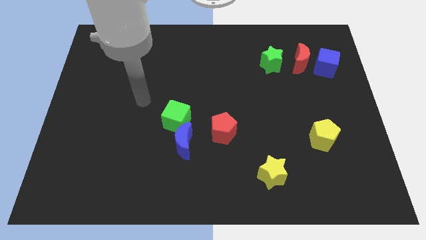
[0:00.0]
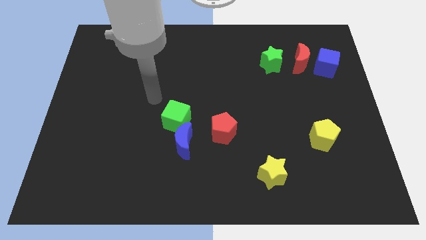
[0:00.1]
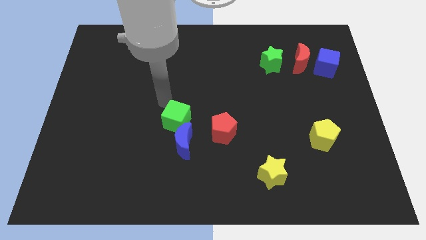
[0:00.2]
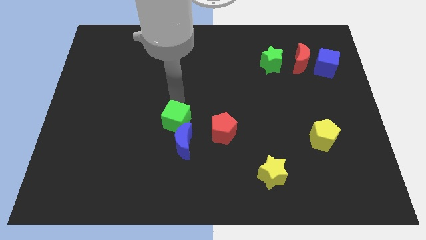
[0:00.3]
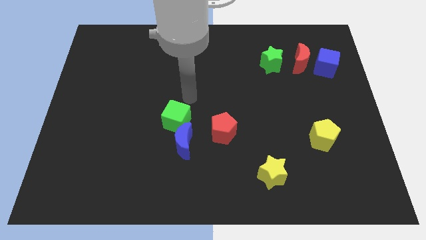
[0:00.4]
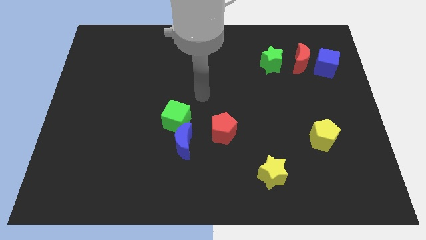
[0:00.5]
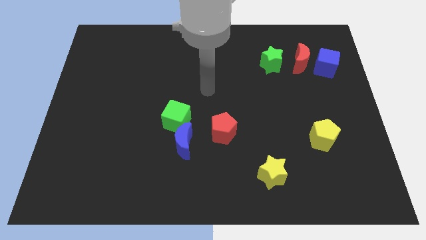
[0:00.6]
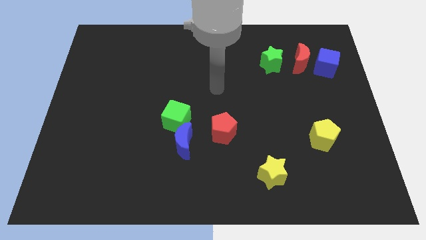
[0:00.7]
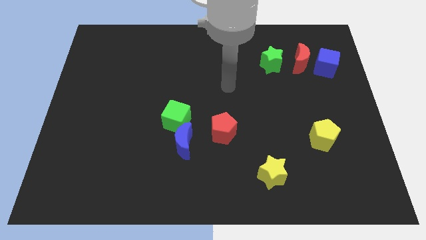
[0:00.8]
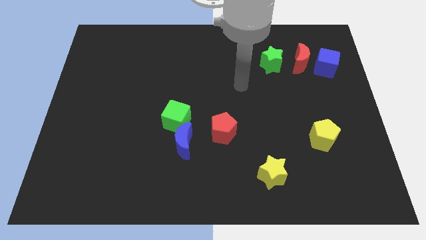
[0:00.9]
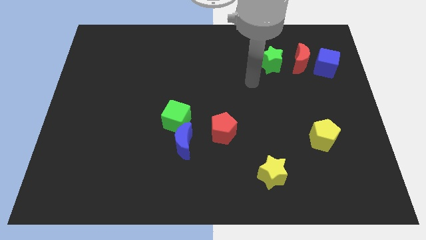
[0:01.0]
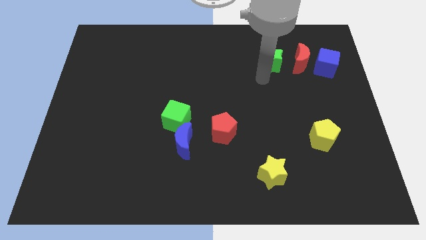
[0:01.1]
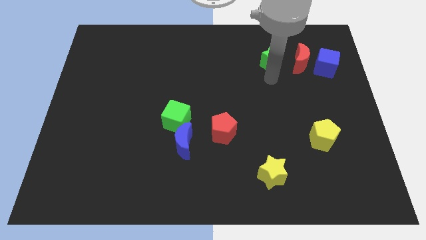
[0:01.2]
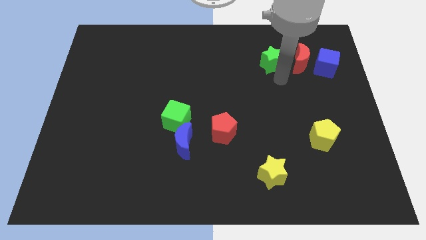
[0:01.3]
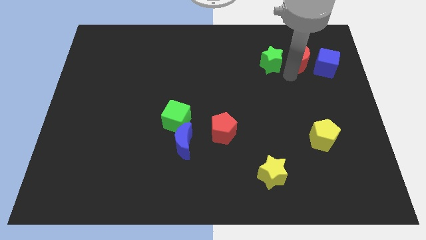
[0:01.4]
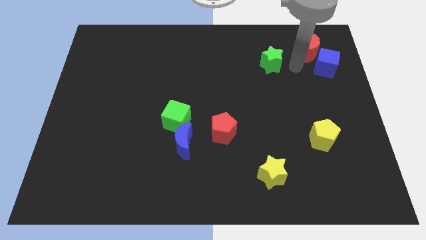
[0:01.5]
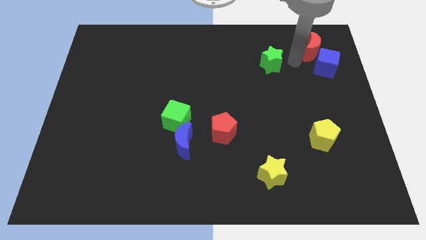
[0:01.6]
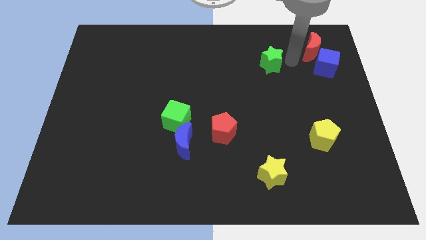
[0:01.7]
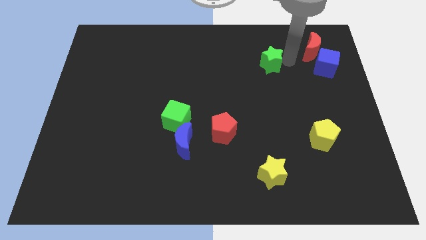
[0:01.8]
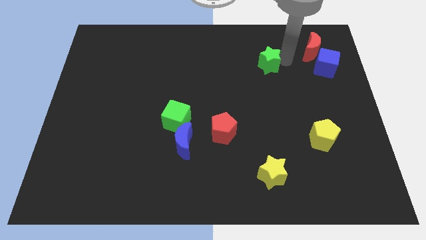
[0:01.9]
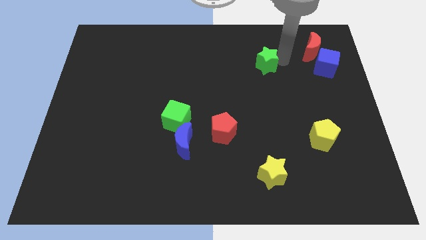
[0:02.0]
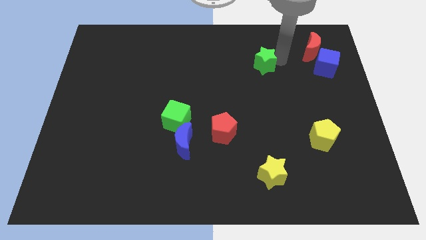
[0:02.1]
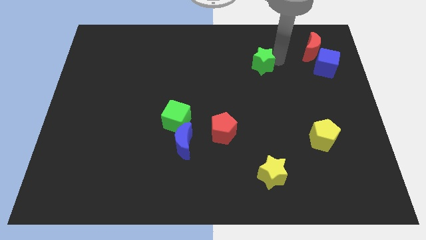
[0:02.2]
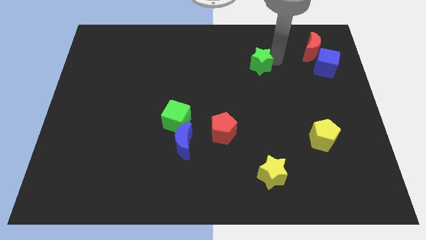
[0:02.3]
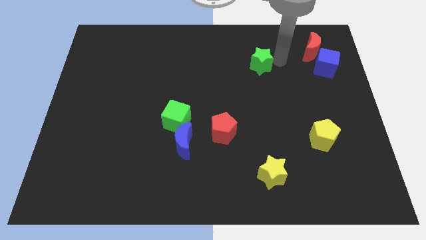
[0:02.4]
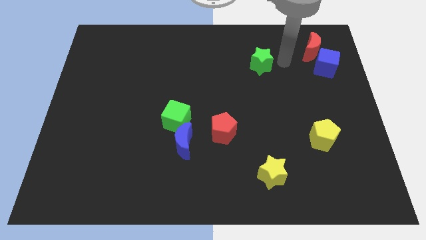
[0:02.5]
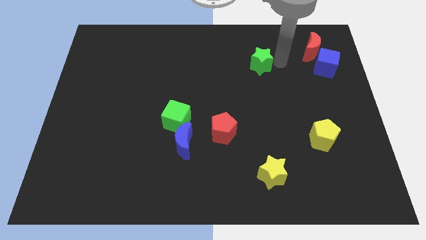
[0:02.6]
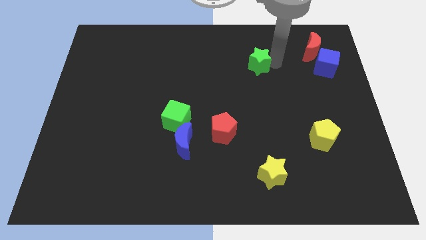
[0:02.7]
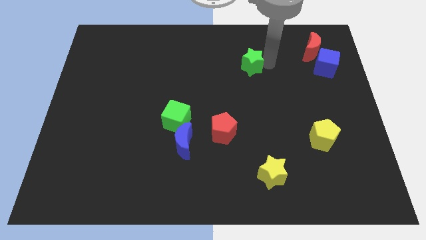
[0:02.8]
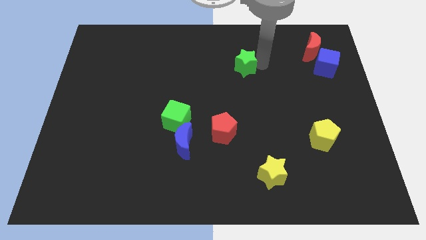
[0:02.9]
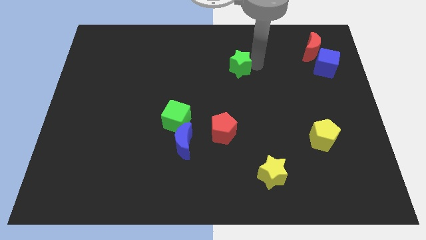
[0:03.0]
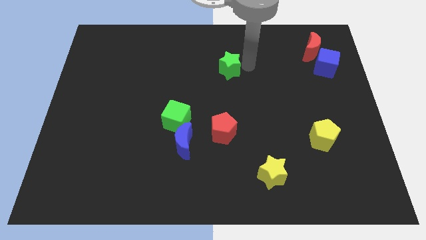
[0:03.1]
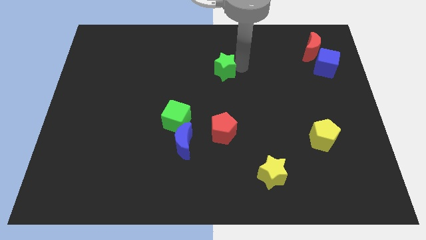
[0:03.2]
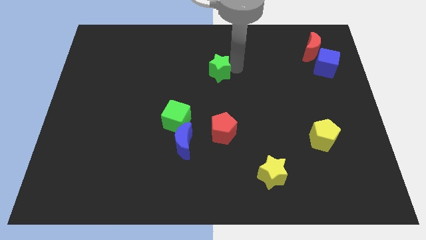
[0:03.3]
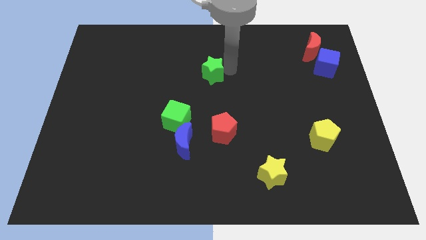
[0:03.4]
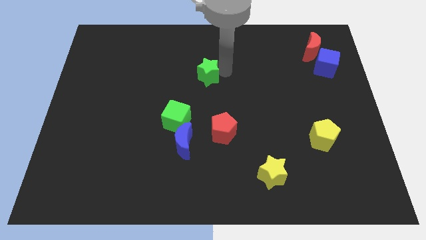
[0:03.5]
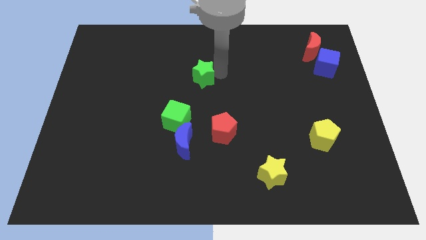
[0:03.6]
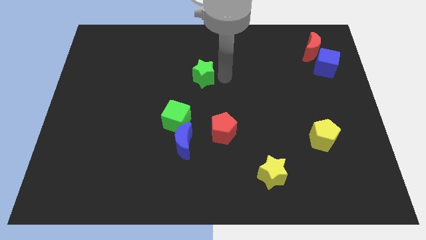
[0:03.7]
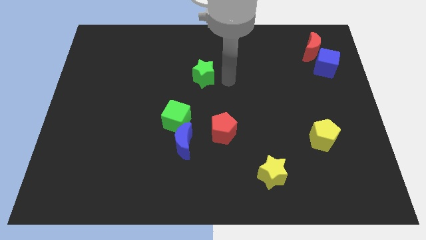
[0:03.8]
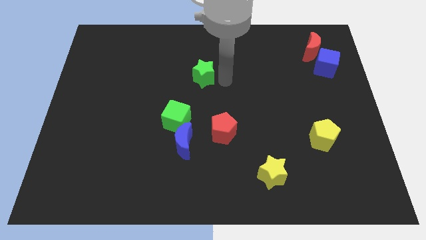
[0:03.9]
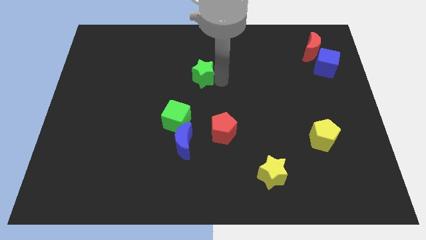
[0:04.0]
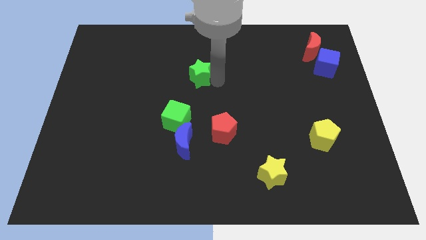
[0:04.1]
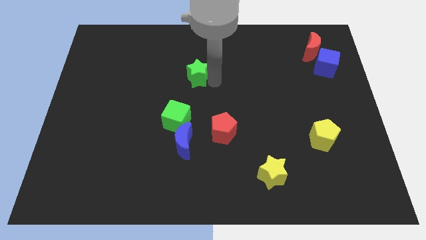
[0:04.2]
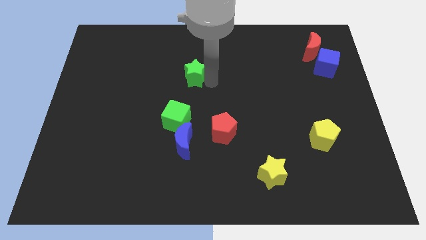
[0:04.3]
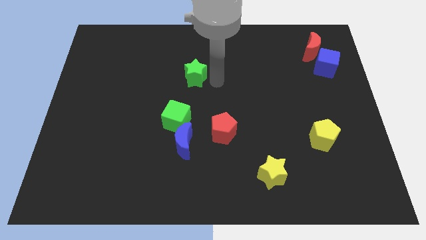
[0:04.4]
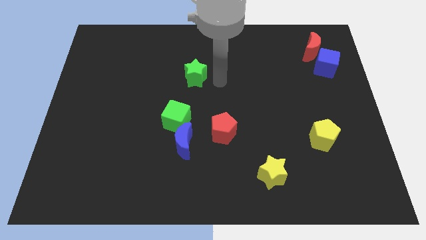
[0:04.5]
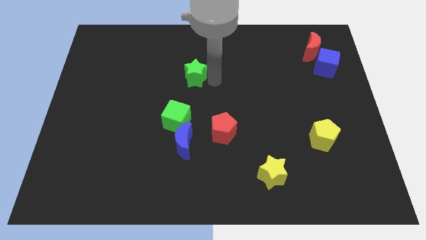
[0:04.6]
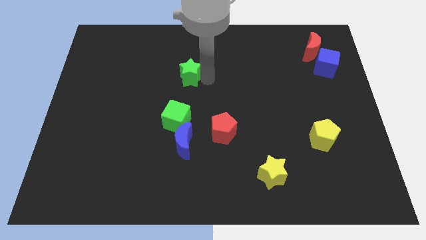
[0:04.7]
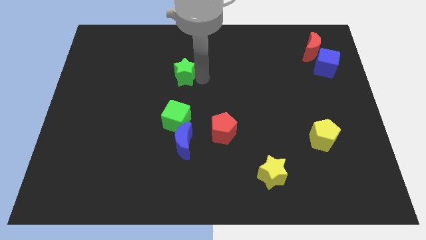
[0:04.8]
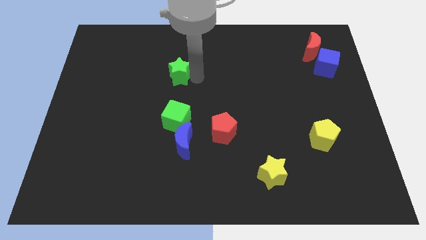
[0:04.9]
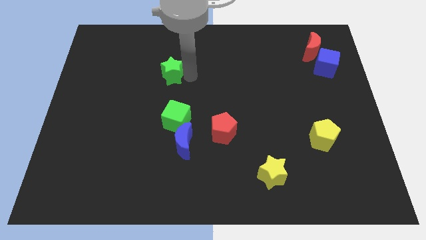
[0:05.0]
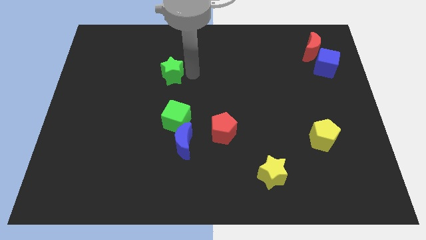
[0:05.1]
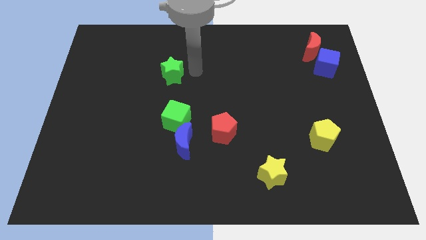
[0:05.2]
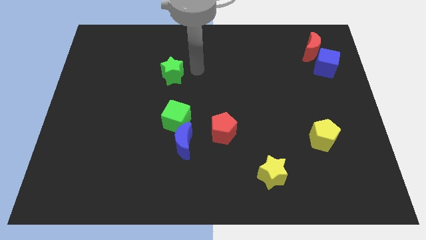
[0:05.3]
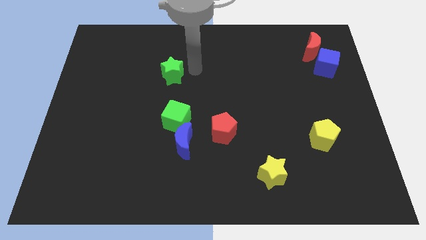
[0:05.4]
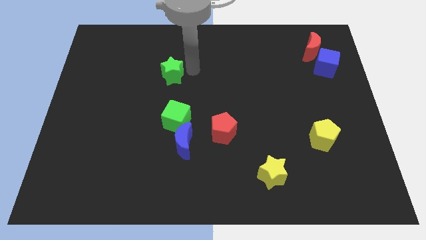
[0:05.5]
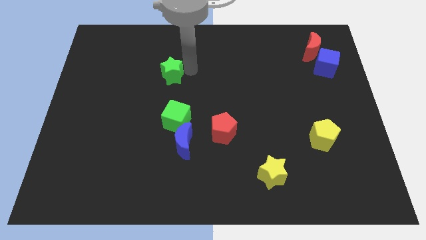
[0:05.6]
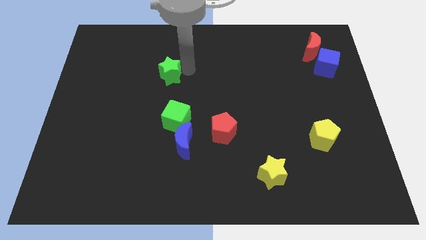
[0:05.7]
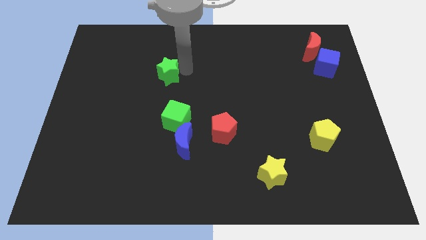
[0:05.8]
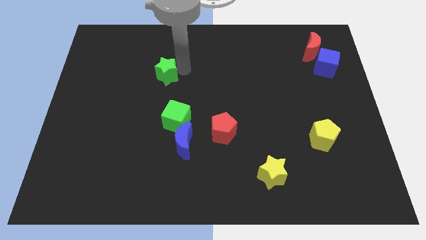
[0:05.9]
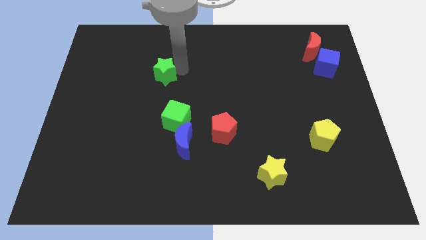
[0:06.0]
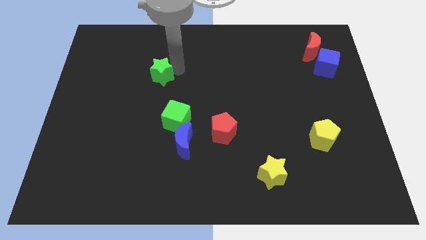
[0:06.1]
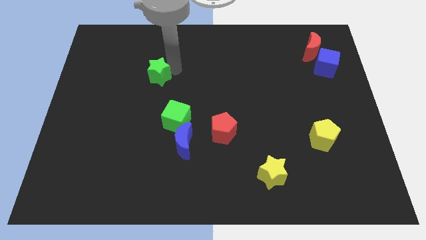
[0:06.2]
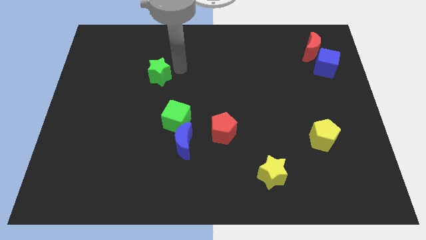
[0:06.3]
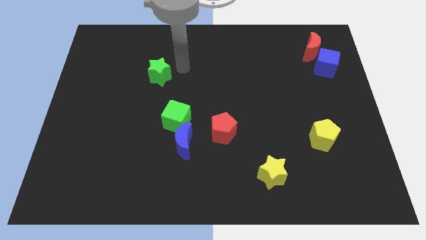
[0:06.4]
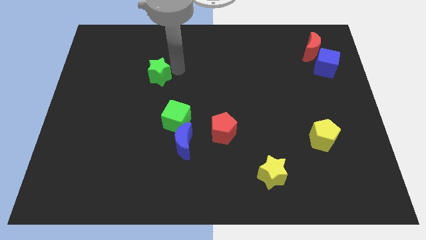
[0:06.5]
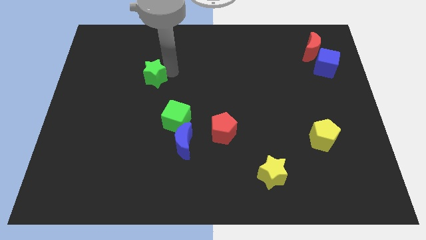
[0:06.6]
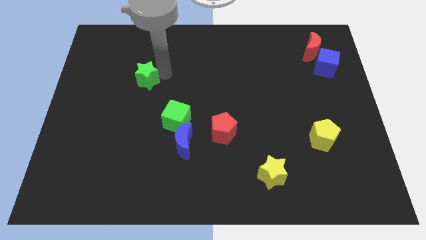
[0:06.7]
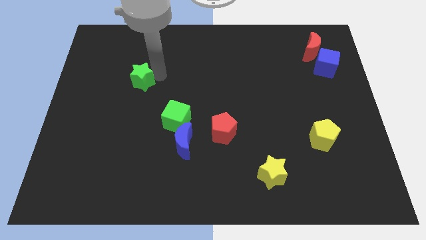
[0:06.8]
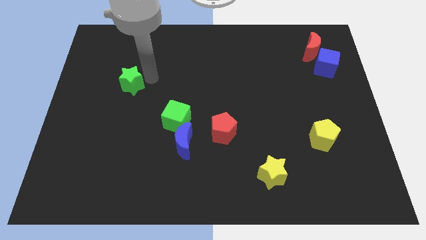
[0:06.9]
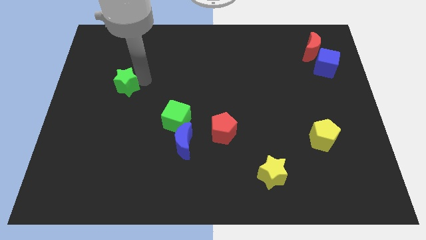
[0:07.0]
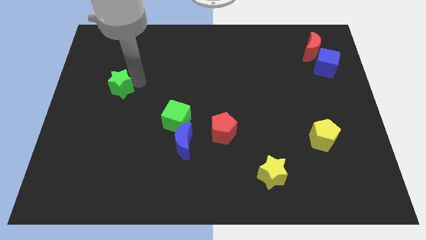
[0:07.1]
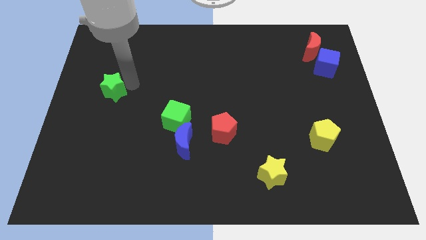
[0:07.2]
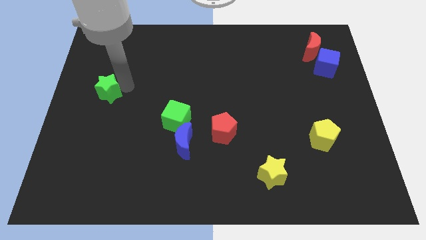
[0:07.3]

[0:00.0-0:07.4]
push the green star to the center left
